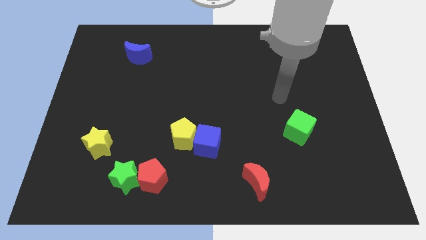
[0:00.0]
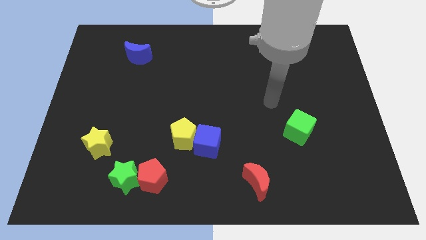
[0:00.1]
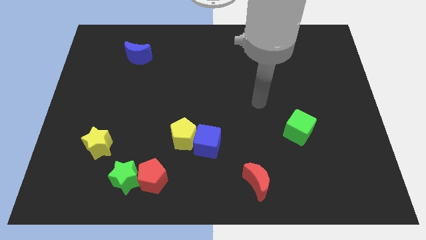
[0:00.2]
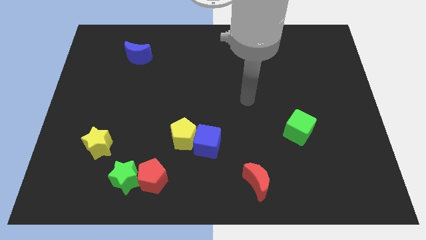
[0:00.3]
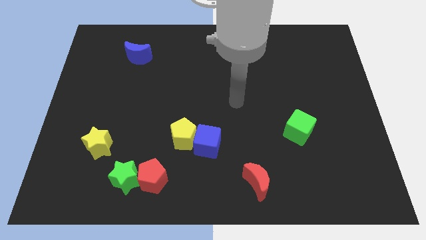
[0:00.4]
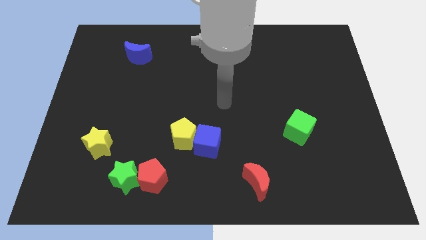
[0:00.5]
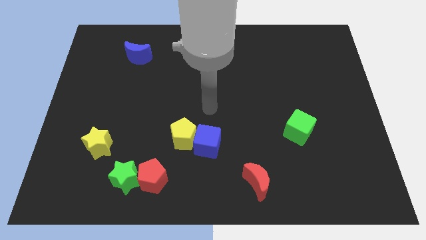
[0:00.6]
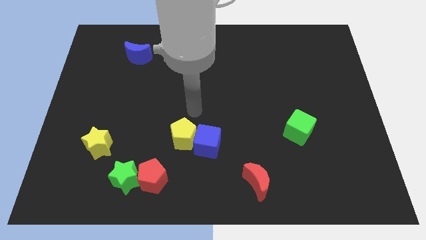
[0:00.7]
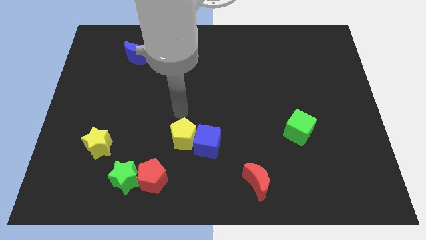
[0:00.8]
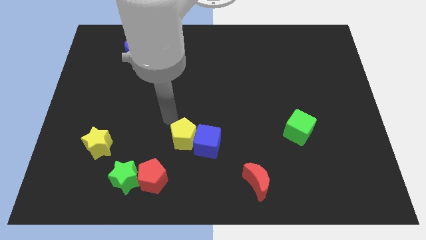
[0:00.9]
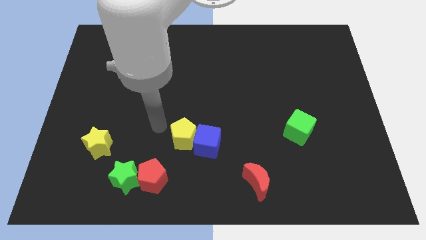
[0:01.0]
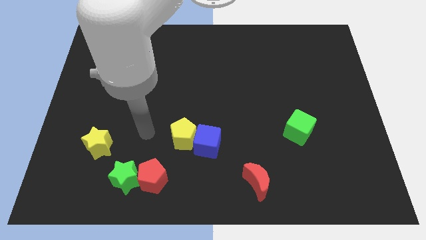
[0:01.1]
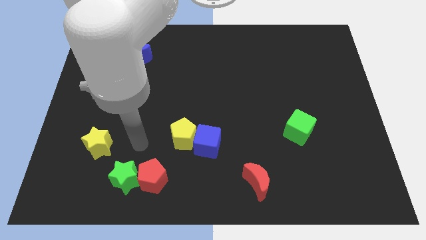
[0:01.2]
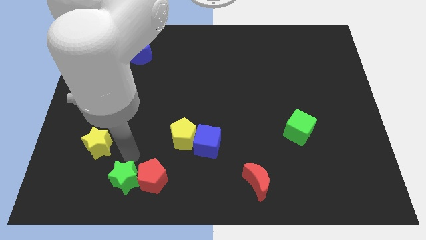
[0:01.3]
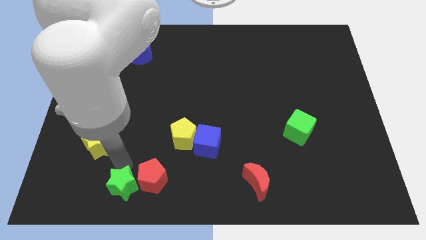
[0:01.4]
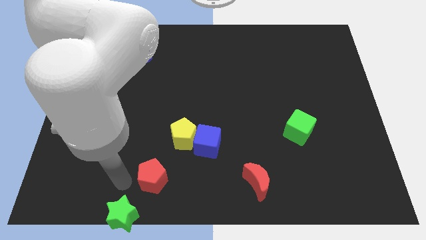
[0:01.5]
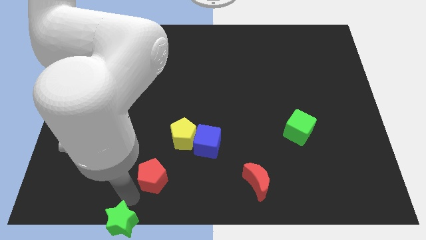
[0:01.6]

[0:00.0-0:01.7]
move the red pentagon away from the green star

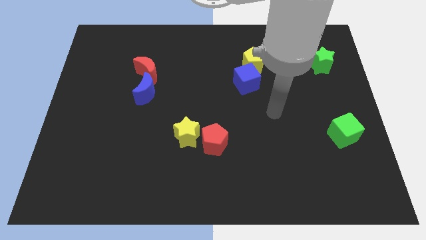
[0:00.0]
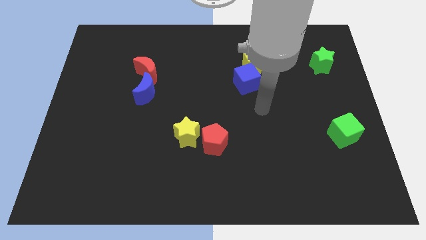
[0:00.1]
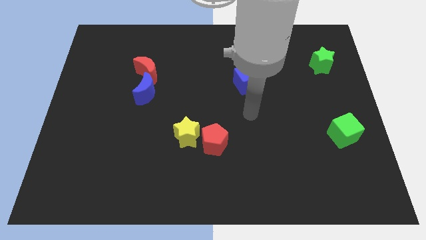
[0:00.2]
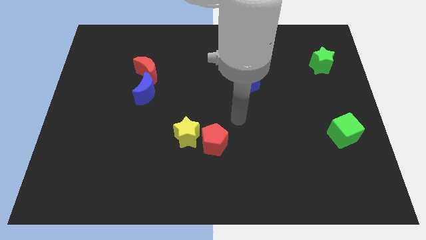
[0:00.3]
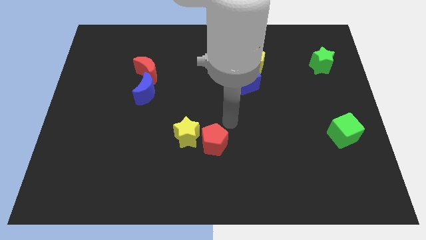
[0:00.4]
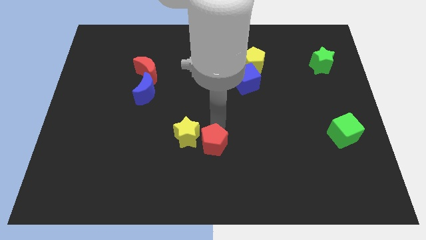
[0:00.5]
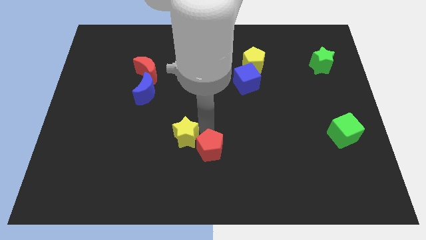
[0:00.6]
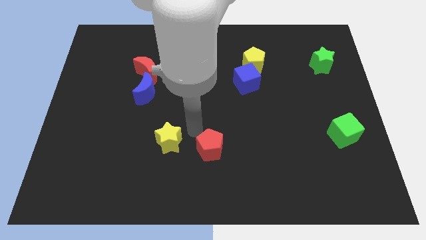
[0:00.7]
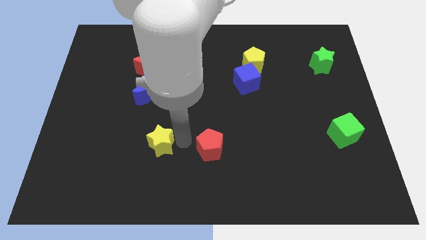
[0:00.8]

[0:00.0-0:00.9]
separate the red pentagon from the yellow star

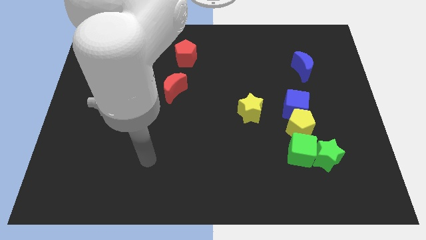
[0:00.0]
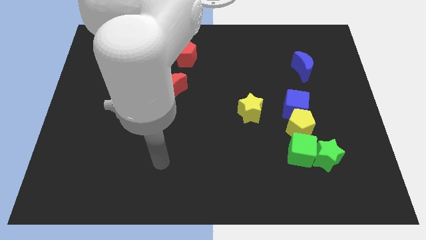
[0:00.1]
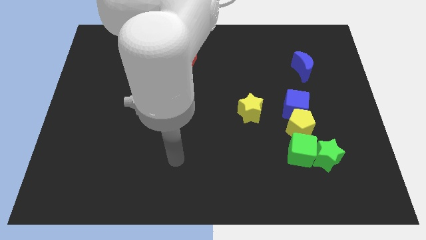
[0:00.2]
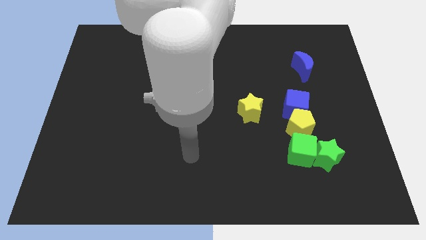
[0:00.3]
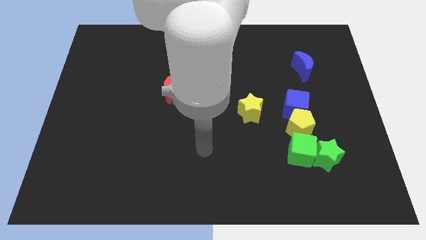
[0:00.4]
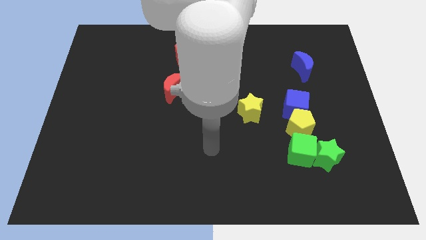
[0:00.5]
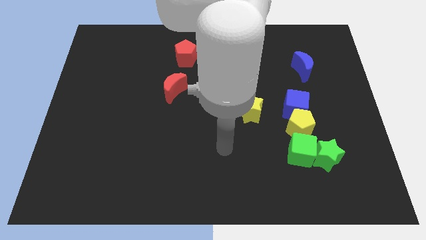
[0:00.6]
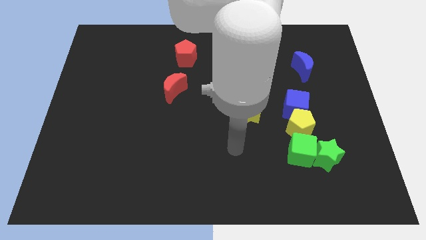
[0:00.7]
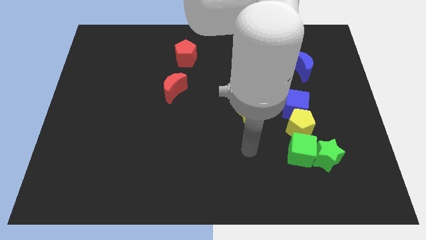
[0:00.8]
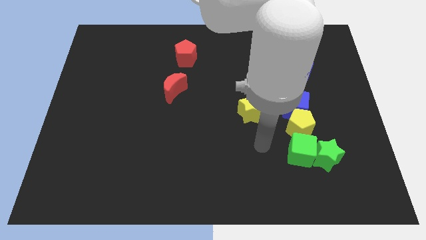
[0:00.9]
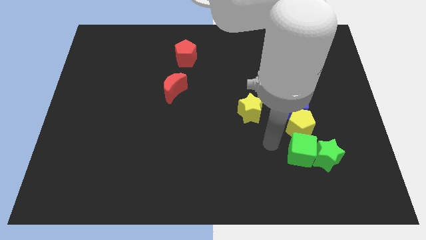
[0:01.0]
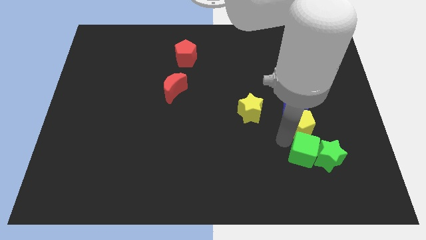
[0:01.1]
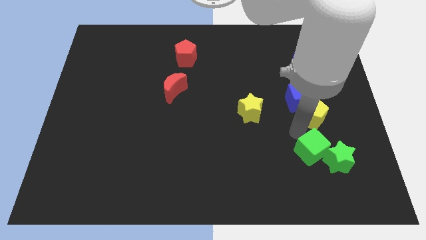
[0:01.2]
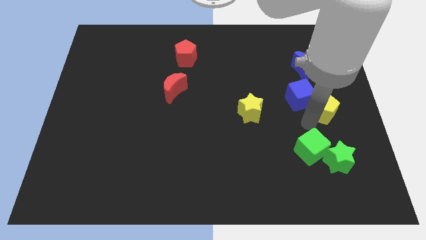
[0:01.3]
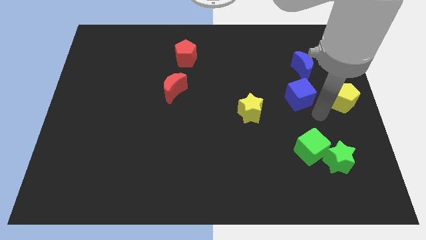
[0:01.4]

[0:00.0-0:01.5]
move the blue cube away from the yellow pentagon

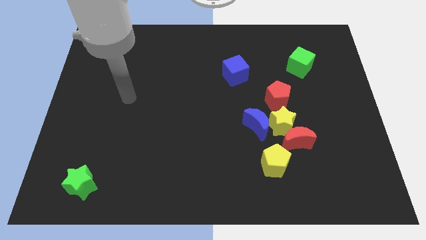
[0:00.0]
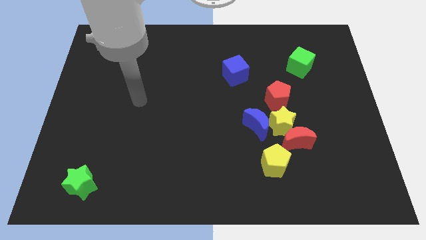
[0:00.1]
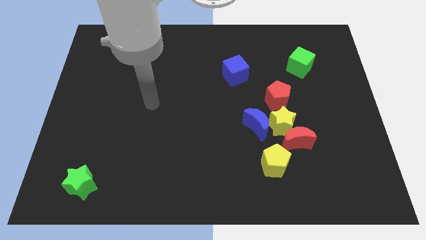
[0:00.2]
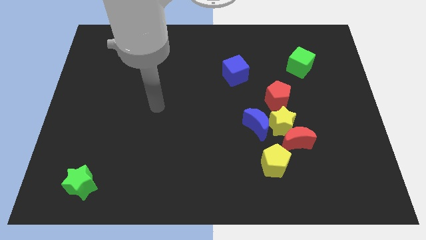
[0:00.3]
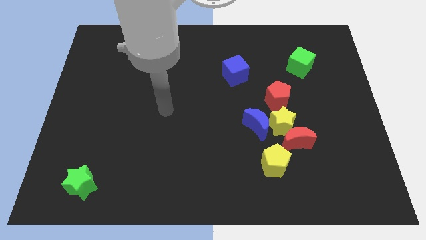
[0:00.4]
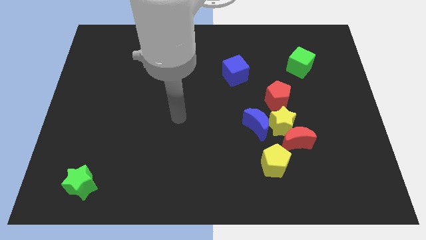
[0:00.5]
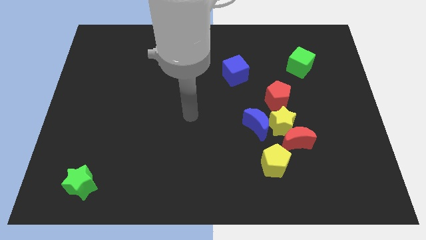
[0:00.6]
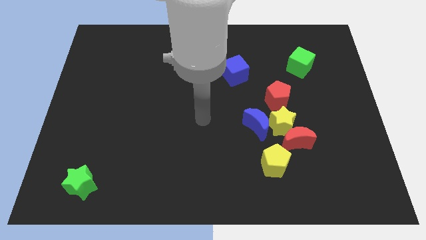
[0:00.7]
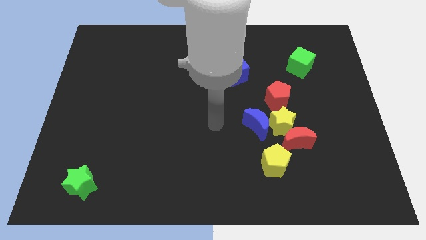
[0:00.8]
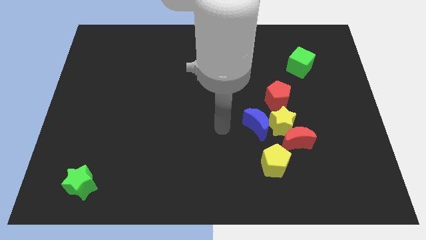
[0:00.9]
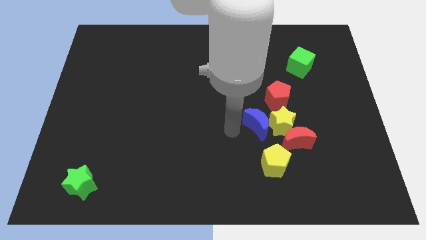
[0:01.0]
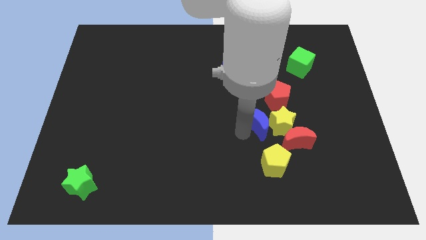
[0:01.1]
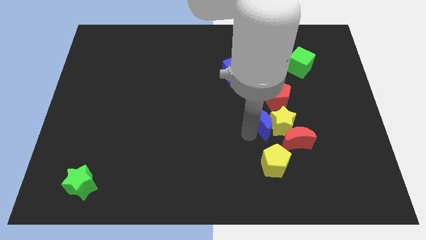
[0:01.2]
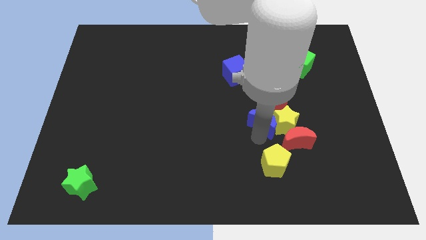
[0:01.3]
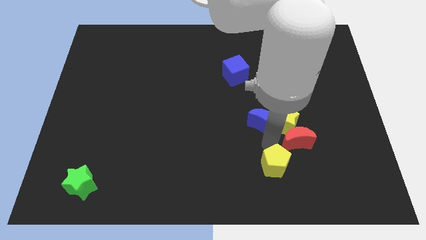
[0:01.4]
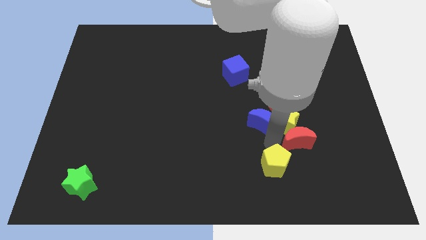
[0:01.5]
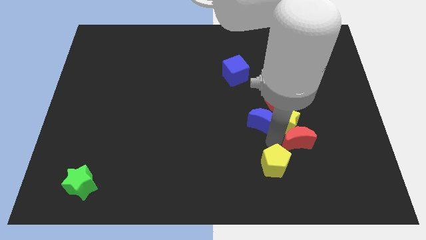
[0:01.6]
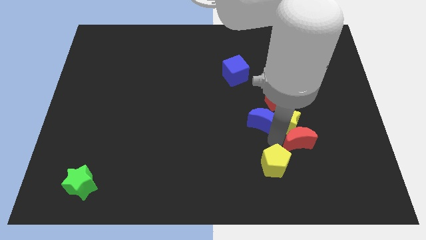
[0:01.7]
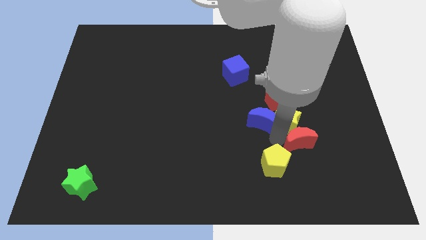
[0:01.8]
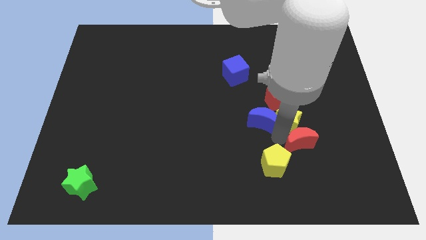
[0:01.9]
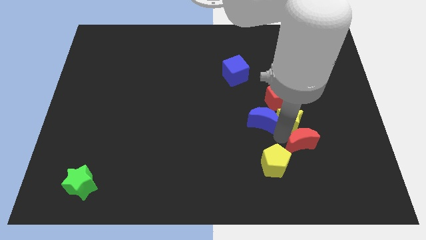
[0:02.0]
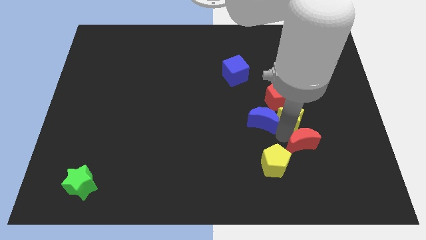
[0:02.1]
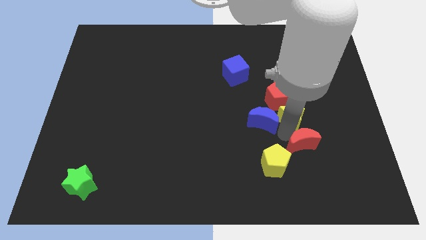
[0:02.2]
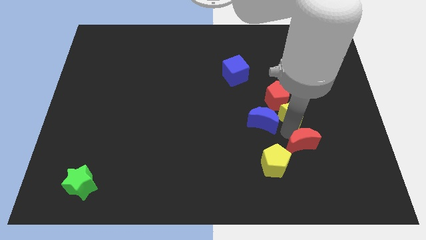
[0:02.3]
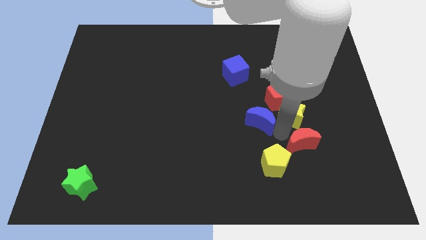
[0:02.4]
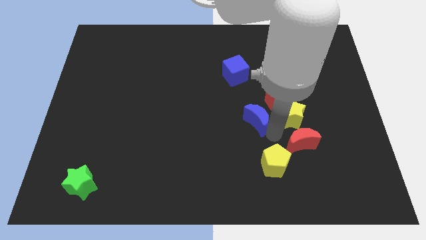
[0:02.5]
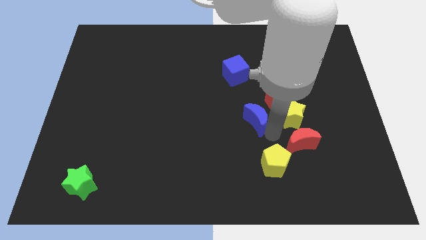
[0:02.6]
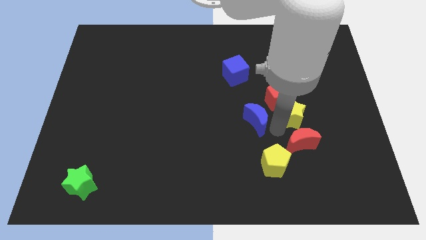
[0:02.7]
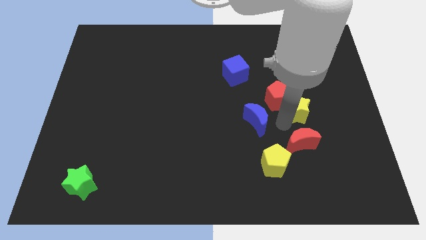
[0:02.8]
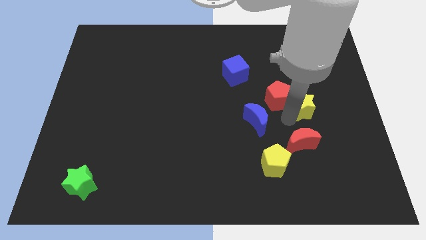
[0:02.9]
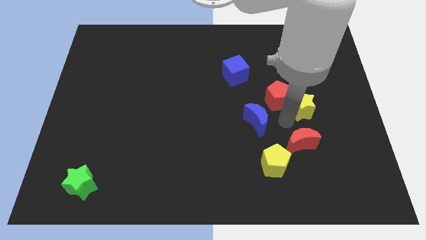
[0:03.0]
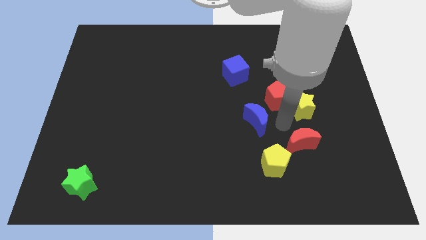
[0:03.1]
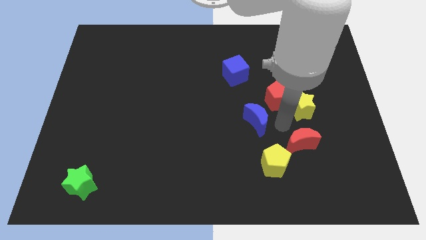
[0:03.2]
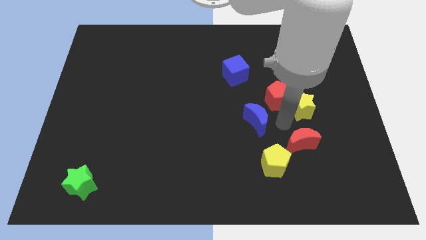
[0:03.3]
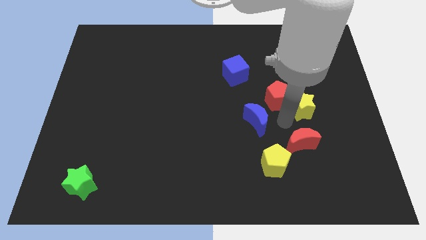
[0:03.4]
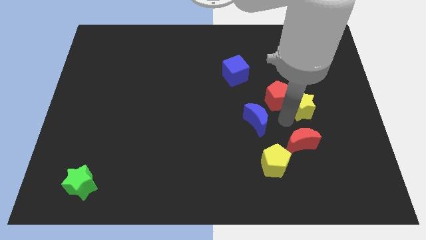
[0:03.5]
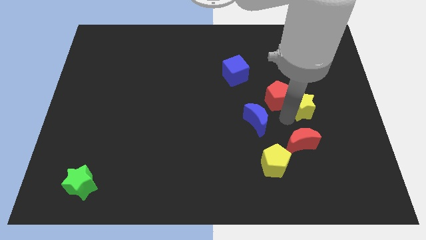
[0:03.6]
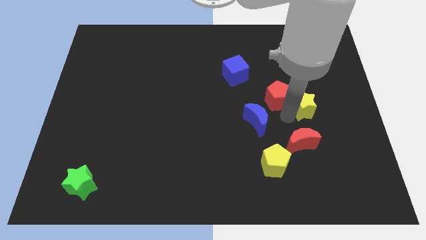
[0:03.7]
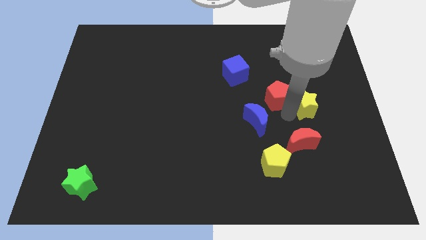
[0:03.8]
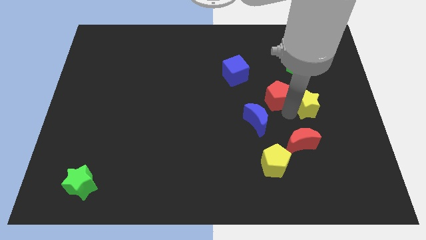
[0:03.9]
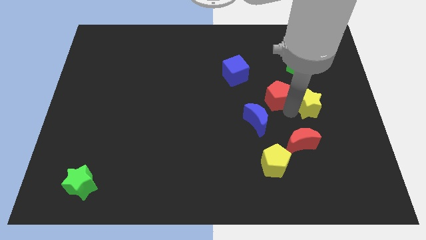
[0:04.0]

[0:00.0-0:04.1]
move the yellow star away from the group

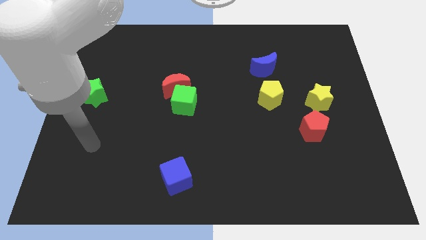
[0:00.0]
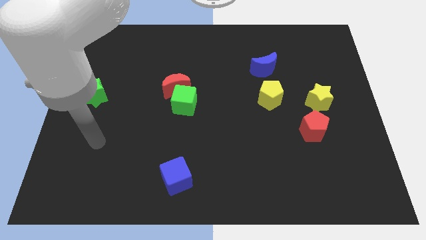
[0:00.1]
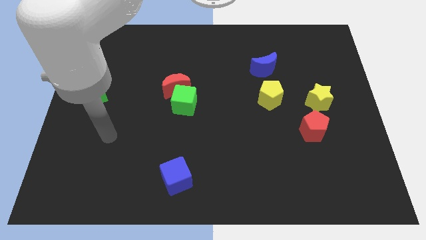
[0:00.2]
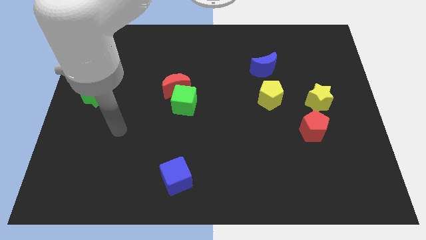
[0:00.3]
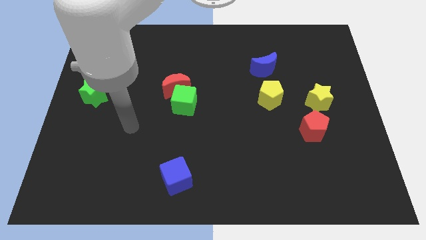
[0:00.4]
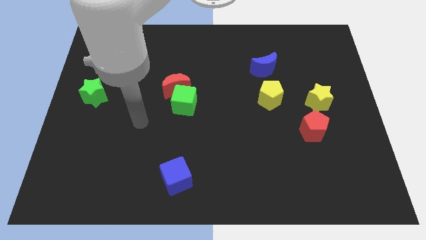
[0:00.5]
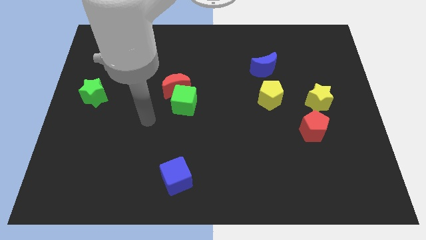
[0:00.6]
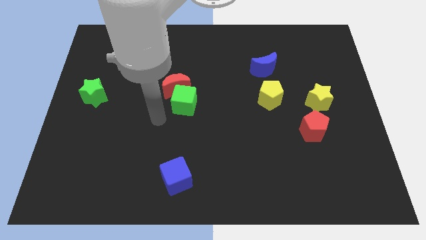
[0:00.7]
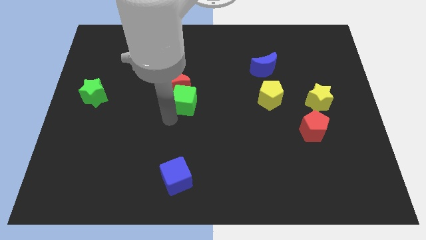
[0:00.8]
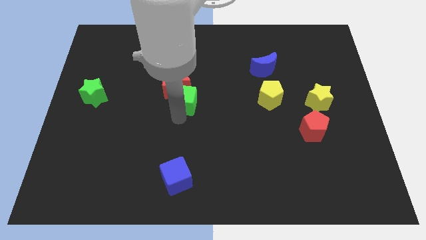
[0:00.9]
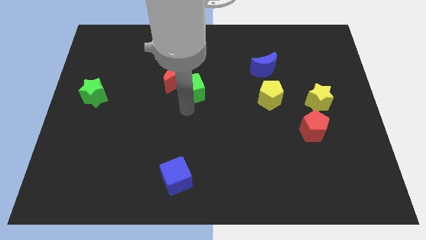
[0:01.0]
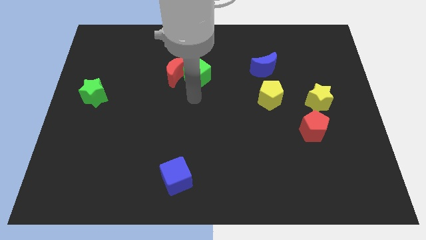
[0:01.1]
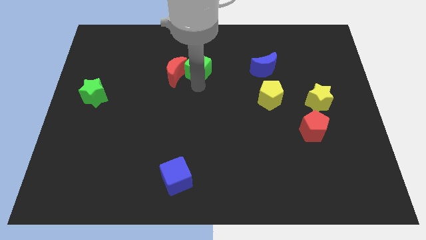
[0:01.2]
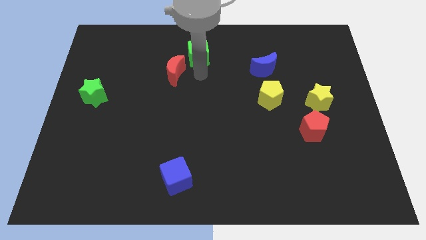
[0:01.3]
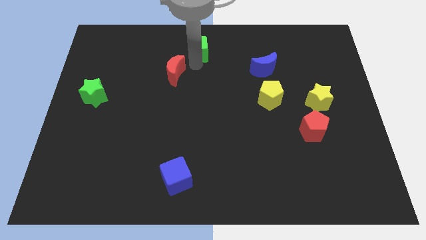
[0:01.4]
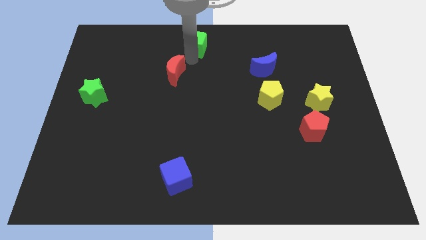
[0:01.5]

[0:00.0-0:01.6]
move the red moon away from the green cube
